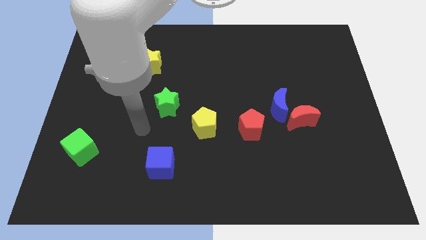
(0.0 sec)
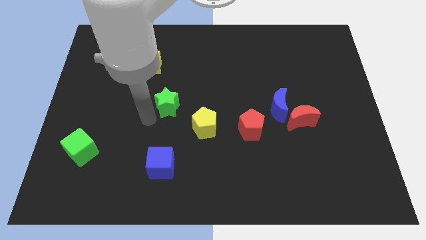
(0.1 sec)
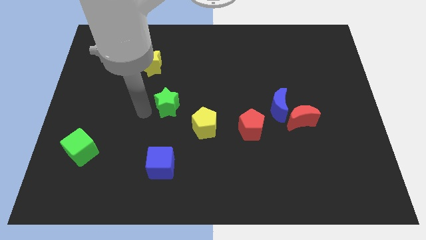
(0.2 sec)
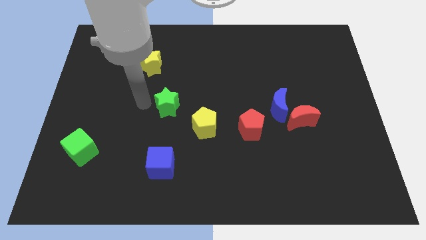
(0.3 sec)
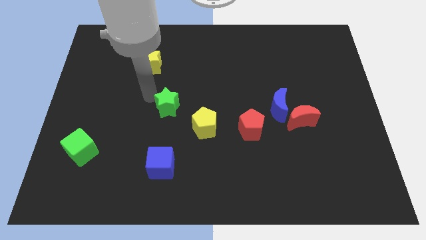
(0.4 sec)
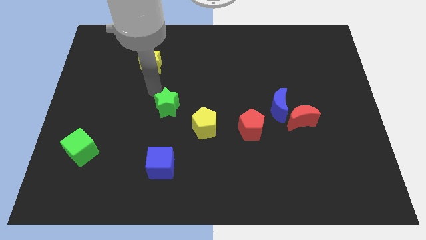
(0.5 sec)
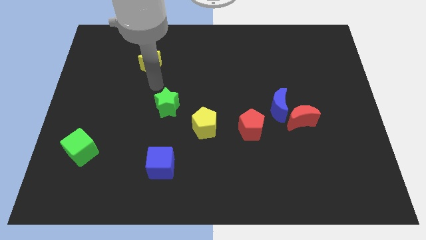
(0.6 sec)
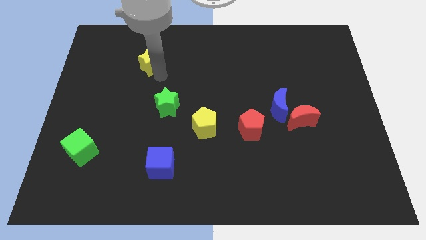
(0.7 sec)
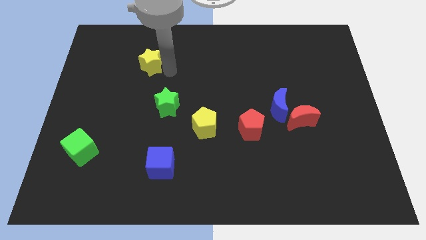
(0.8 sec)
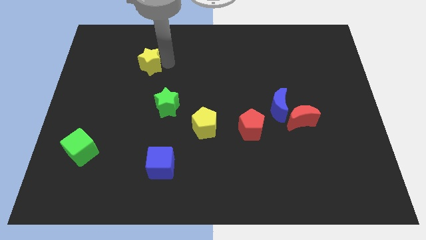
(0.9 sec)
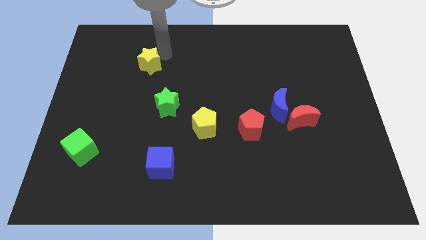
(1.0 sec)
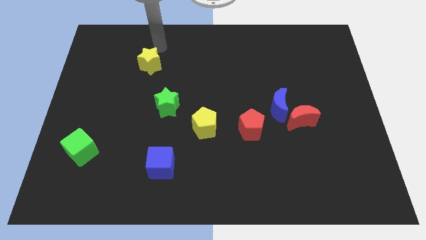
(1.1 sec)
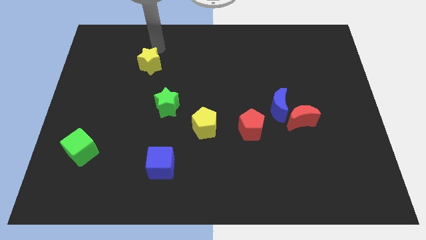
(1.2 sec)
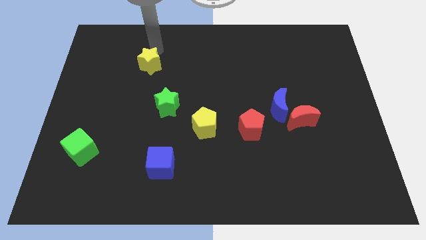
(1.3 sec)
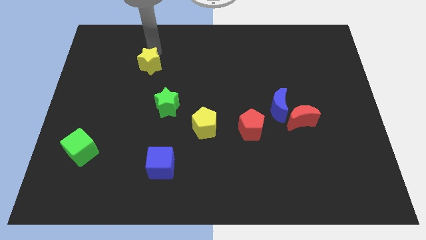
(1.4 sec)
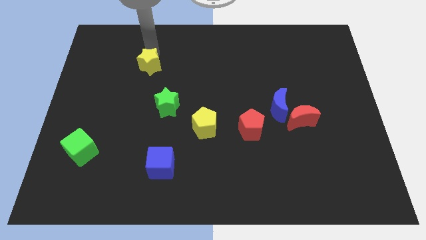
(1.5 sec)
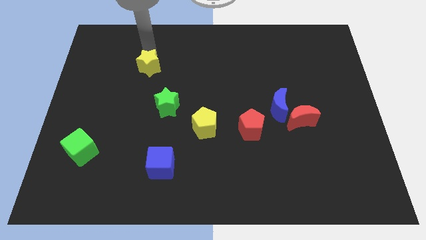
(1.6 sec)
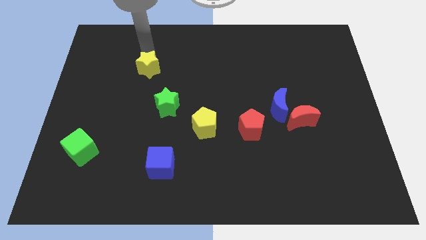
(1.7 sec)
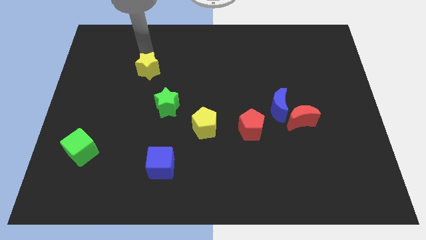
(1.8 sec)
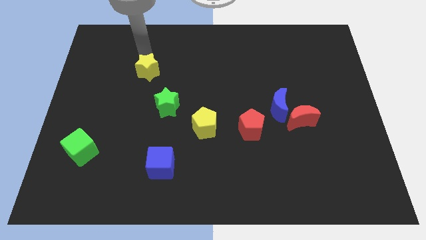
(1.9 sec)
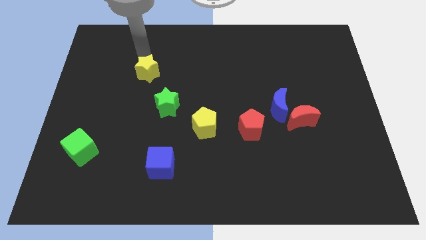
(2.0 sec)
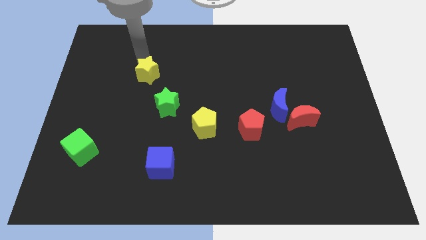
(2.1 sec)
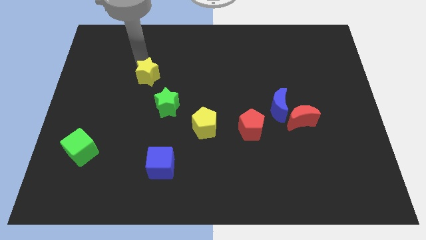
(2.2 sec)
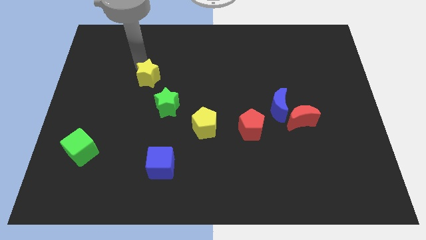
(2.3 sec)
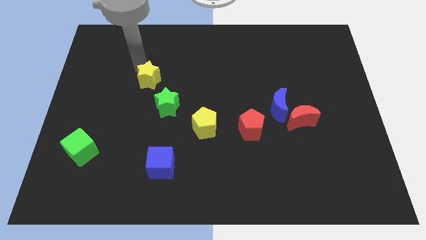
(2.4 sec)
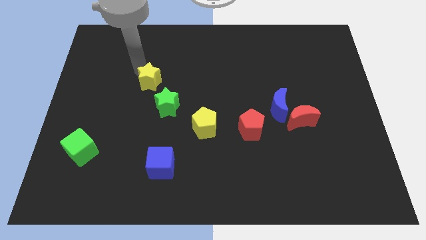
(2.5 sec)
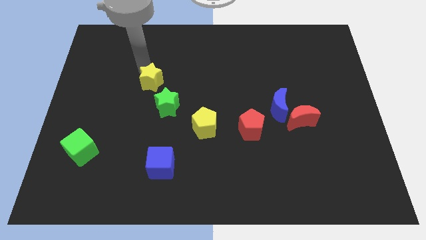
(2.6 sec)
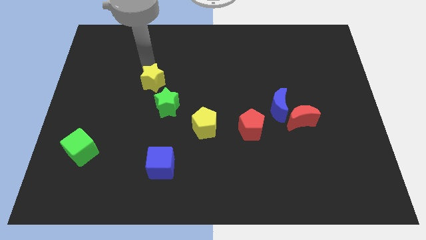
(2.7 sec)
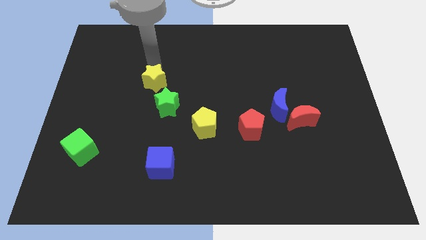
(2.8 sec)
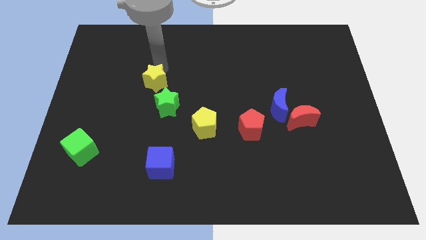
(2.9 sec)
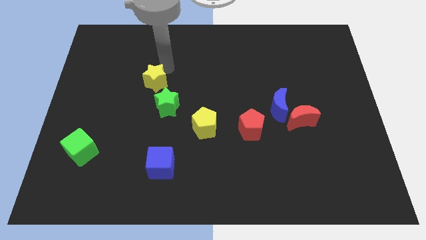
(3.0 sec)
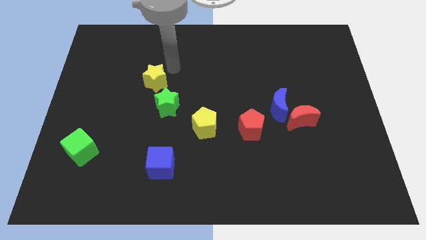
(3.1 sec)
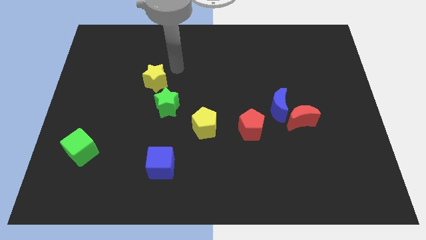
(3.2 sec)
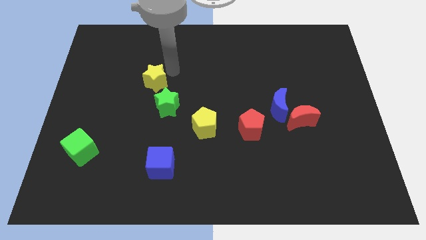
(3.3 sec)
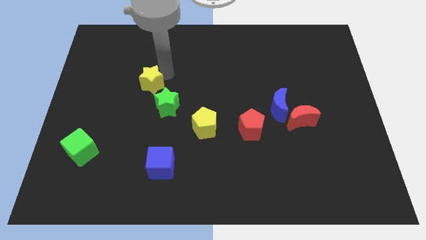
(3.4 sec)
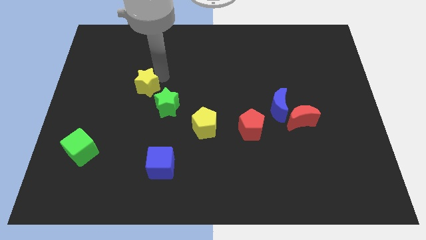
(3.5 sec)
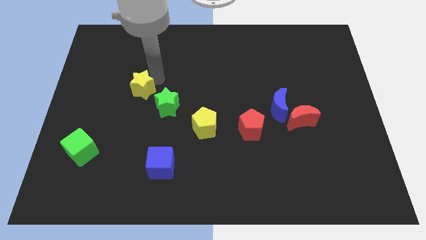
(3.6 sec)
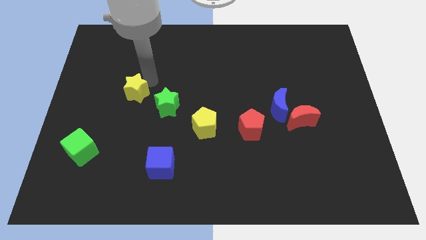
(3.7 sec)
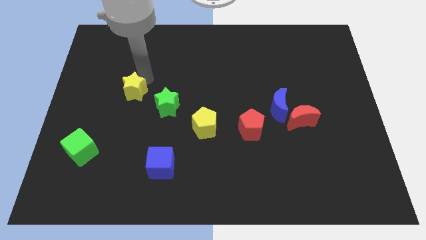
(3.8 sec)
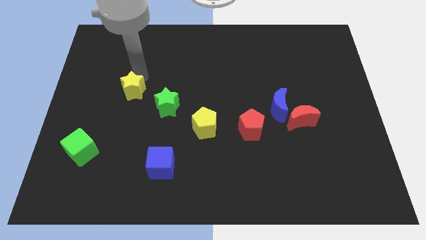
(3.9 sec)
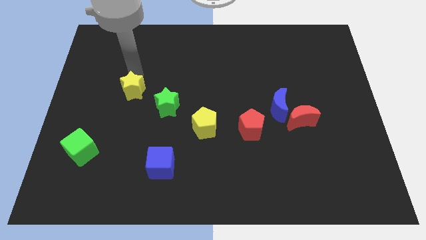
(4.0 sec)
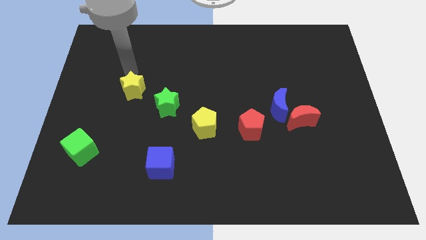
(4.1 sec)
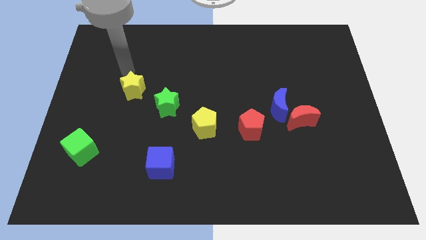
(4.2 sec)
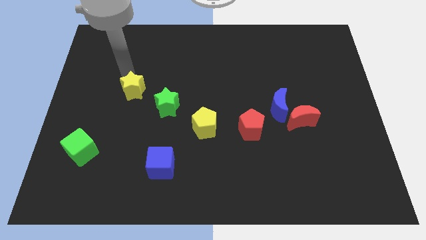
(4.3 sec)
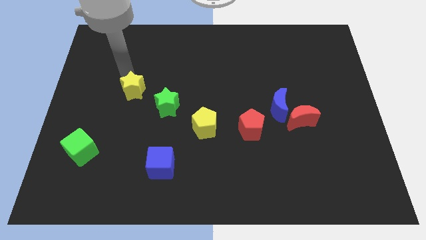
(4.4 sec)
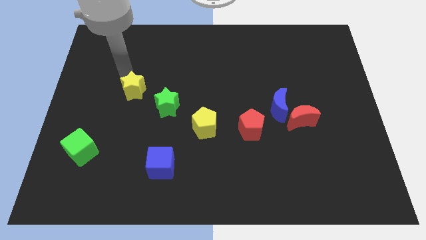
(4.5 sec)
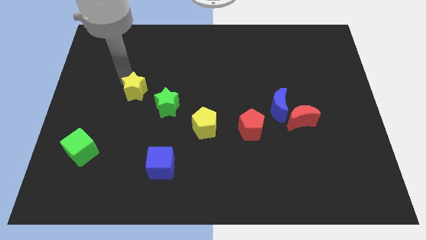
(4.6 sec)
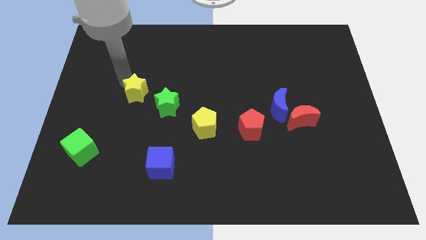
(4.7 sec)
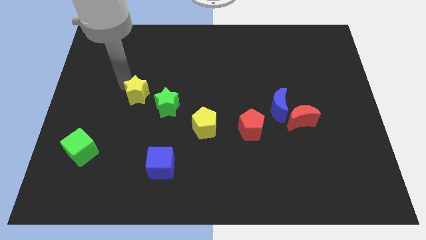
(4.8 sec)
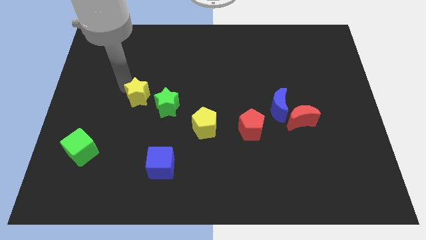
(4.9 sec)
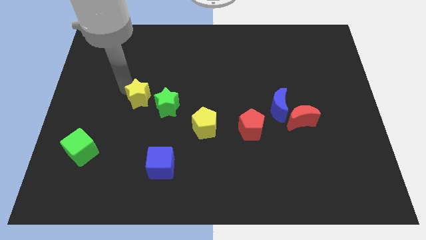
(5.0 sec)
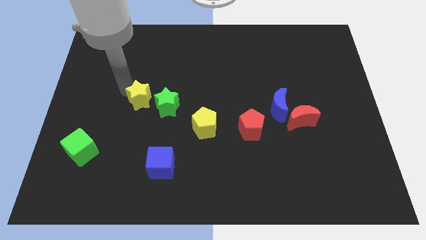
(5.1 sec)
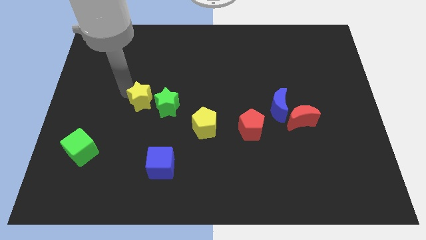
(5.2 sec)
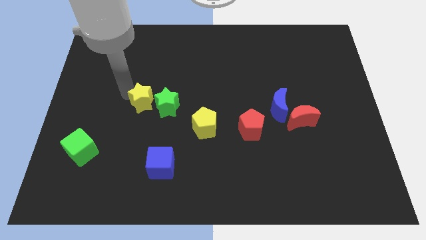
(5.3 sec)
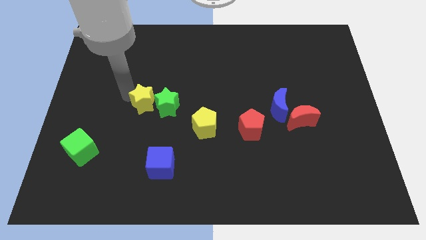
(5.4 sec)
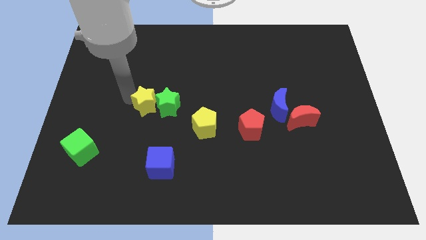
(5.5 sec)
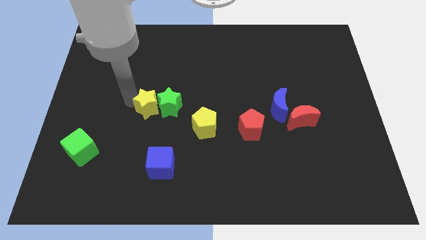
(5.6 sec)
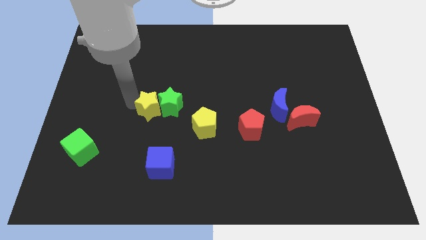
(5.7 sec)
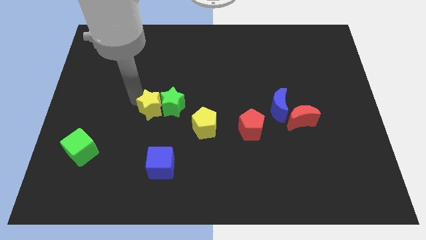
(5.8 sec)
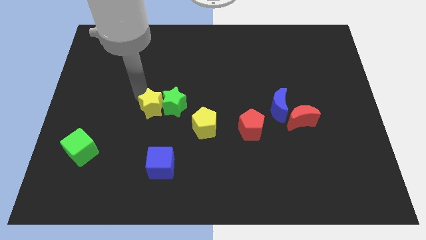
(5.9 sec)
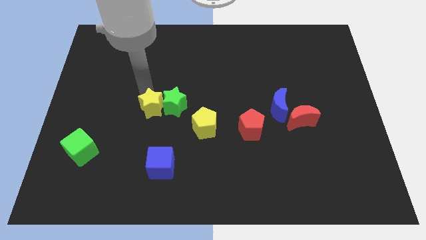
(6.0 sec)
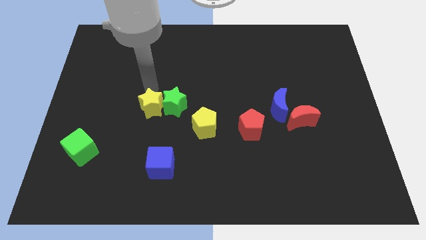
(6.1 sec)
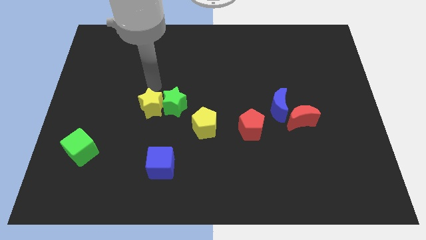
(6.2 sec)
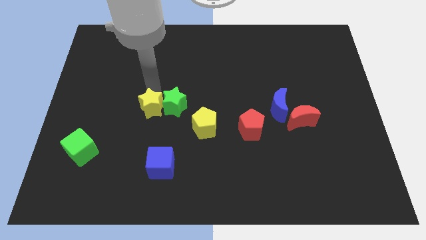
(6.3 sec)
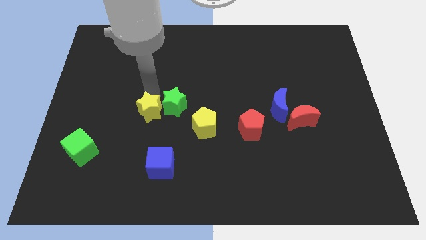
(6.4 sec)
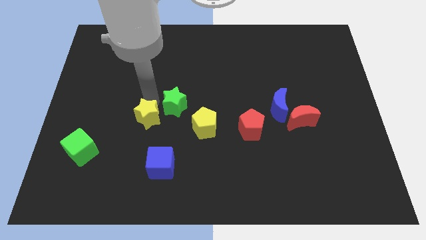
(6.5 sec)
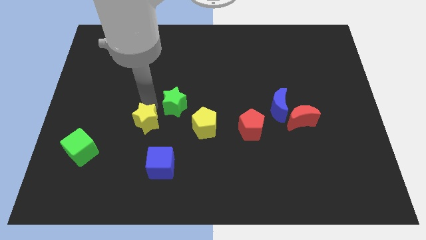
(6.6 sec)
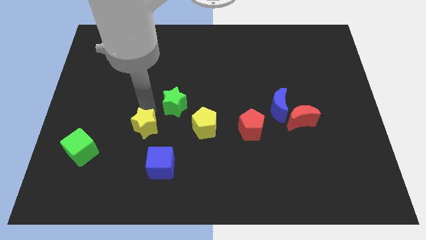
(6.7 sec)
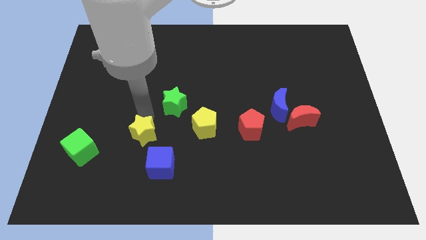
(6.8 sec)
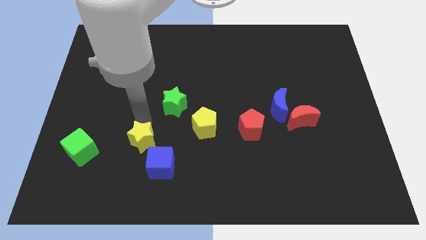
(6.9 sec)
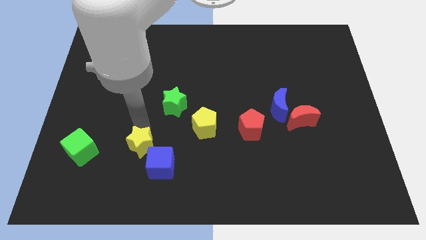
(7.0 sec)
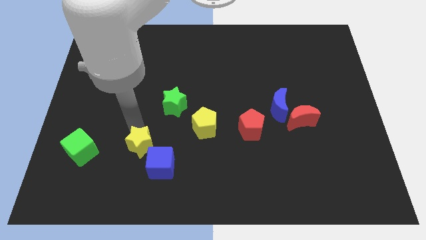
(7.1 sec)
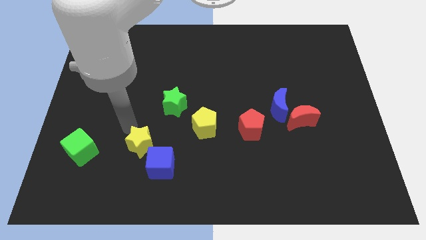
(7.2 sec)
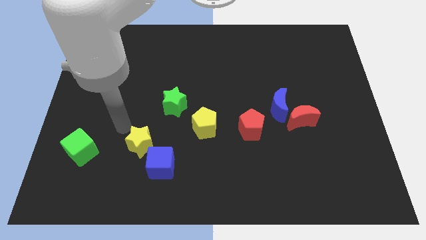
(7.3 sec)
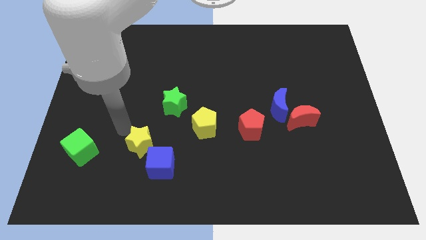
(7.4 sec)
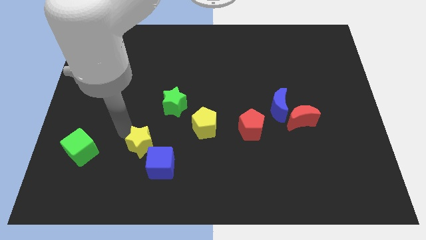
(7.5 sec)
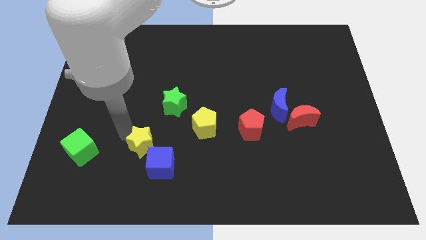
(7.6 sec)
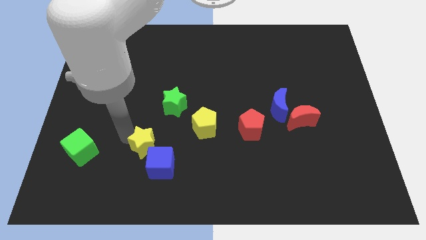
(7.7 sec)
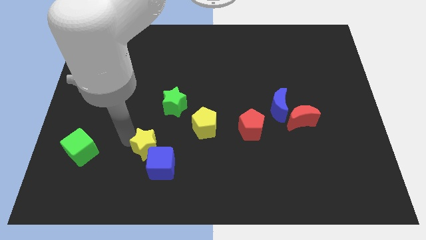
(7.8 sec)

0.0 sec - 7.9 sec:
push the yellow star towards the blue cube

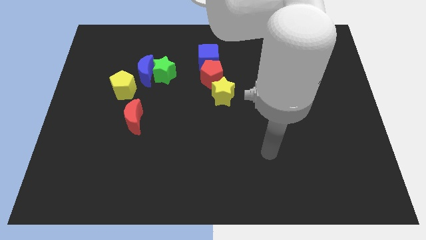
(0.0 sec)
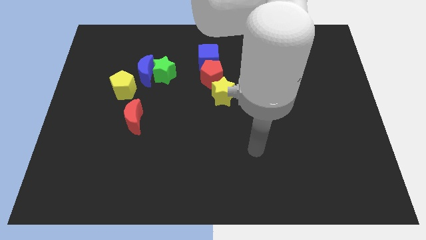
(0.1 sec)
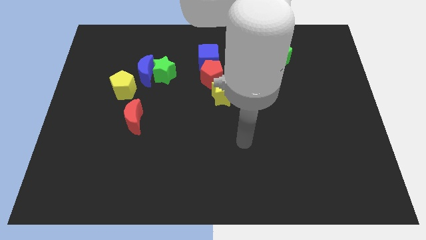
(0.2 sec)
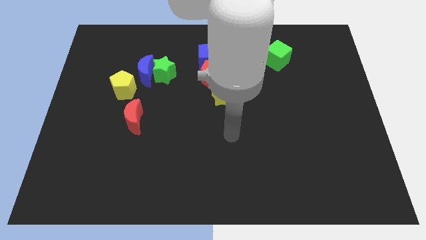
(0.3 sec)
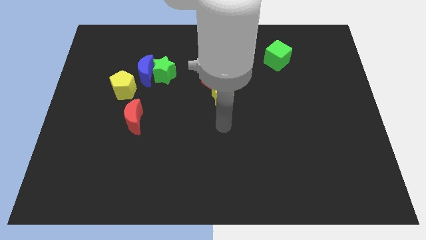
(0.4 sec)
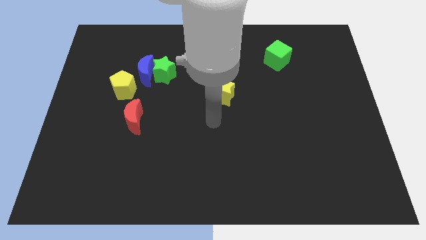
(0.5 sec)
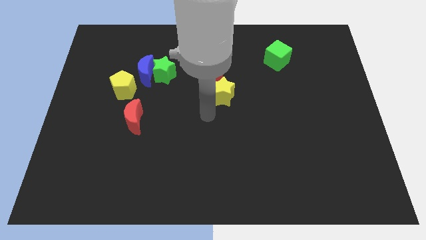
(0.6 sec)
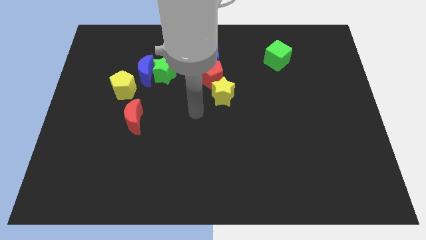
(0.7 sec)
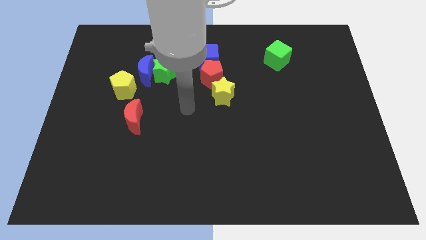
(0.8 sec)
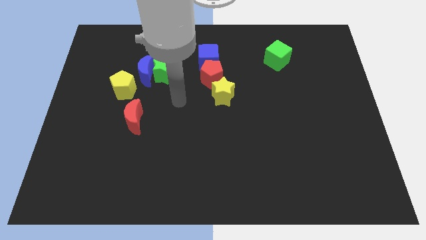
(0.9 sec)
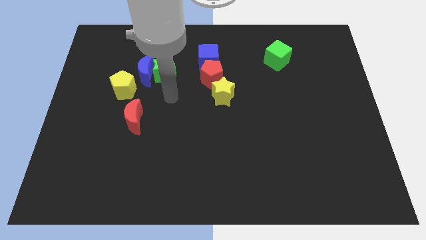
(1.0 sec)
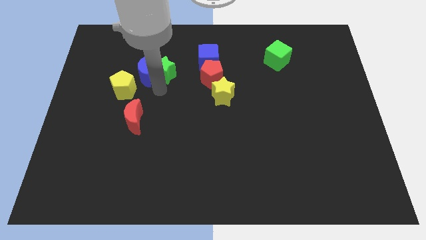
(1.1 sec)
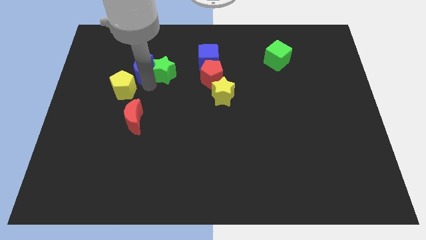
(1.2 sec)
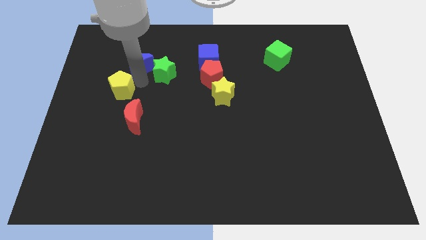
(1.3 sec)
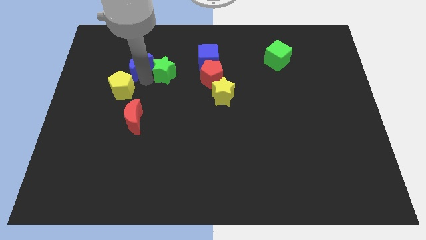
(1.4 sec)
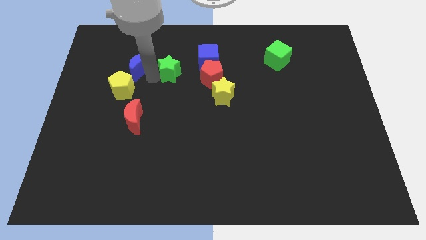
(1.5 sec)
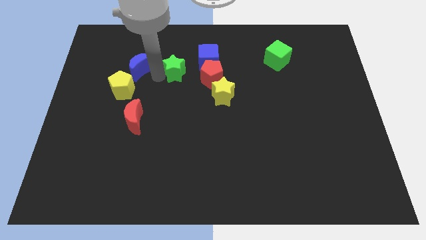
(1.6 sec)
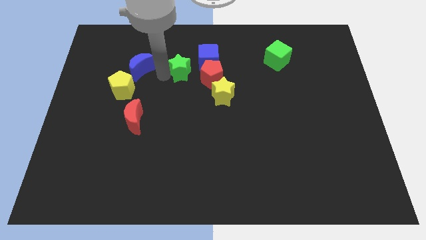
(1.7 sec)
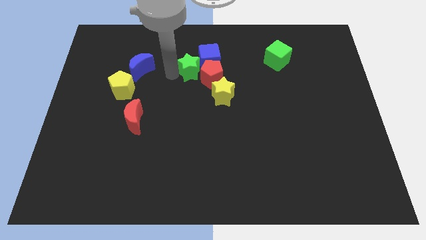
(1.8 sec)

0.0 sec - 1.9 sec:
push the green star towards the blue cube
